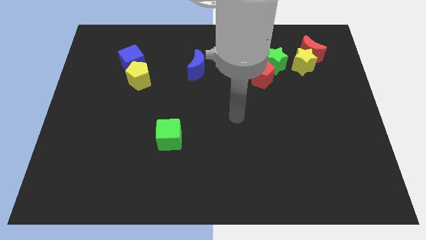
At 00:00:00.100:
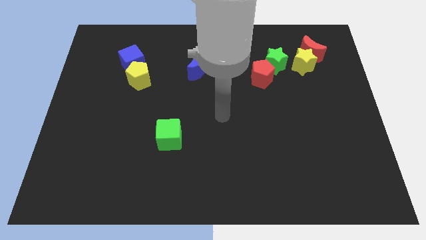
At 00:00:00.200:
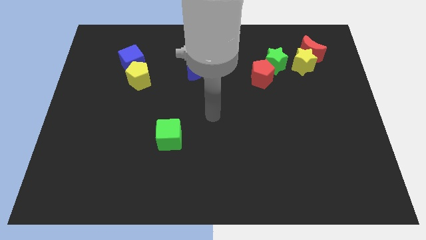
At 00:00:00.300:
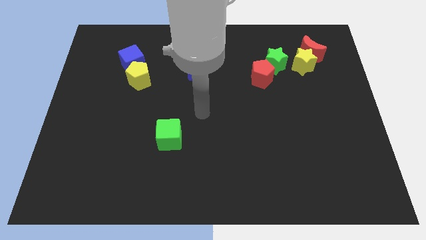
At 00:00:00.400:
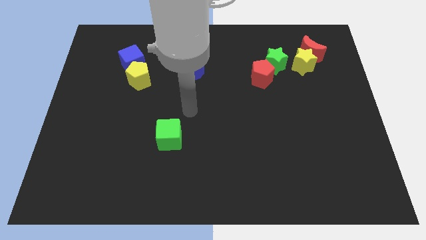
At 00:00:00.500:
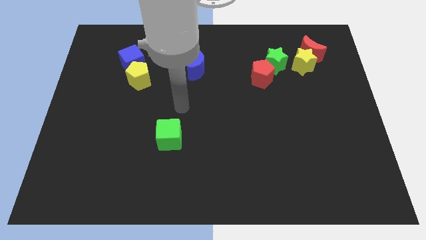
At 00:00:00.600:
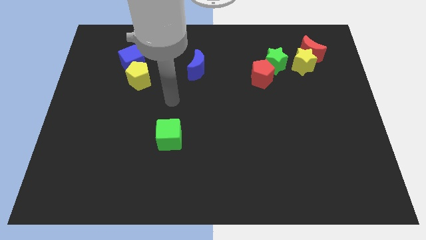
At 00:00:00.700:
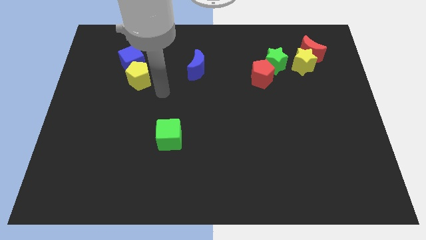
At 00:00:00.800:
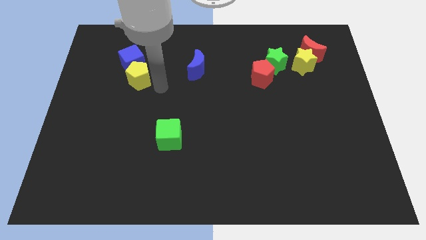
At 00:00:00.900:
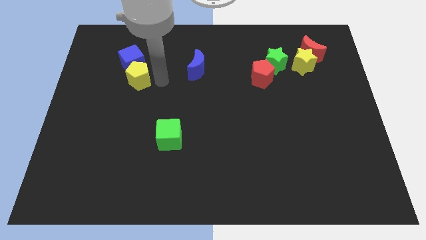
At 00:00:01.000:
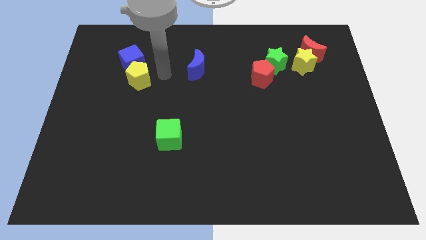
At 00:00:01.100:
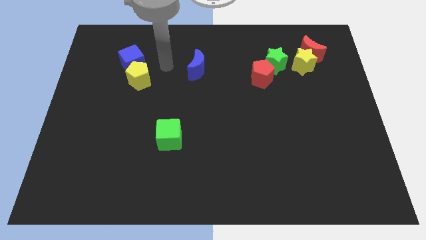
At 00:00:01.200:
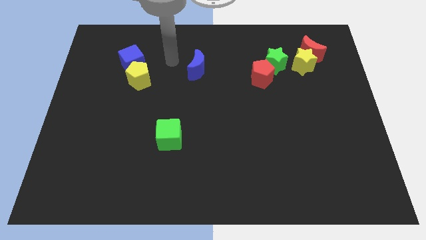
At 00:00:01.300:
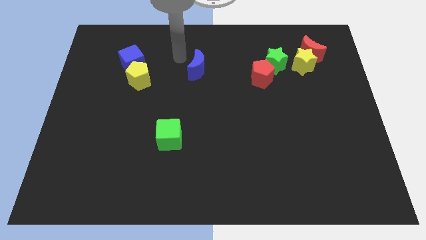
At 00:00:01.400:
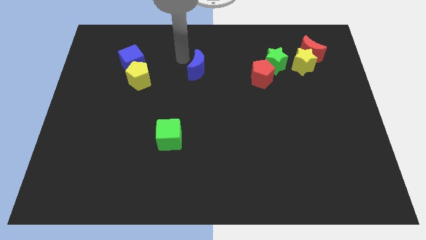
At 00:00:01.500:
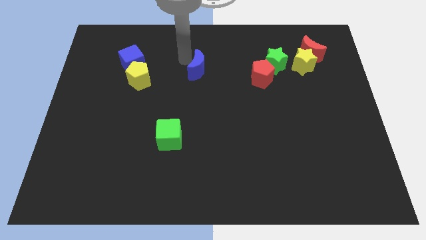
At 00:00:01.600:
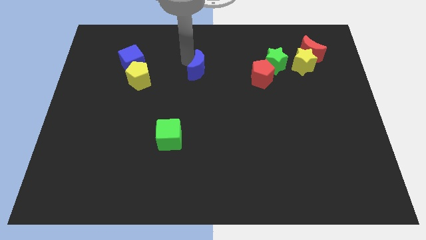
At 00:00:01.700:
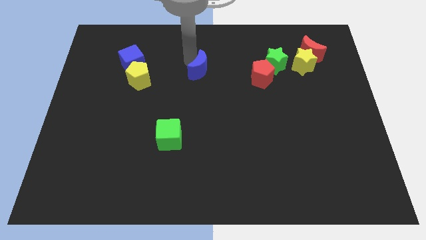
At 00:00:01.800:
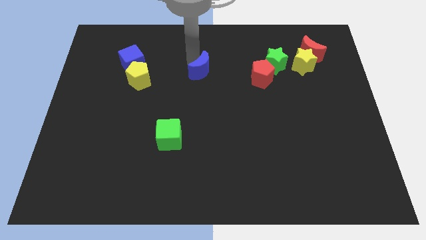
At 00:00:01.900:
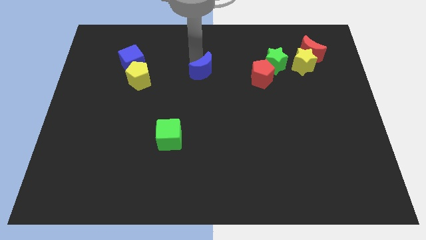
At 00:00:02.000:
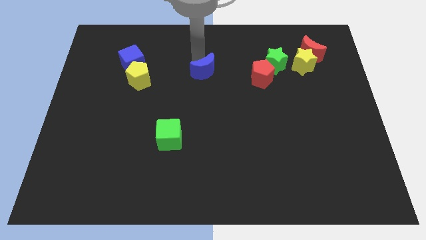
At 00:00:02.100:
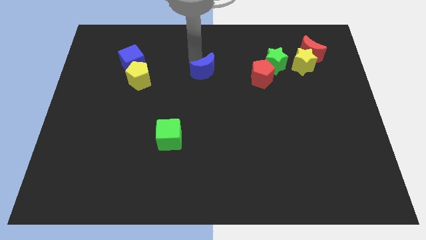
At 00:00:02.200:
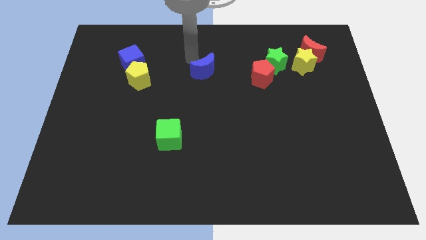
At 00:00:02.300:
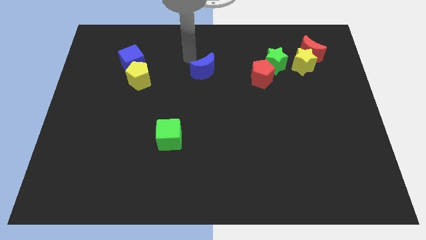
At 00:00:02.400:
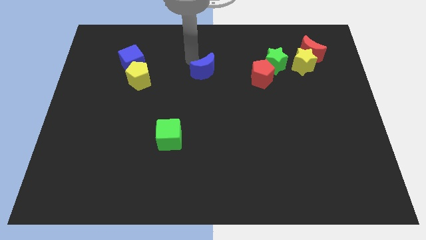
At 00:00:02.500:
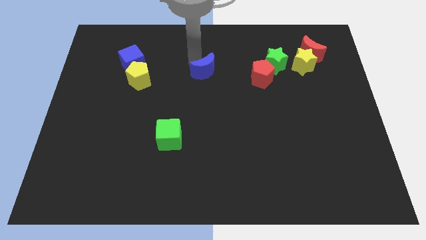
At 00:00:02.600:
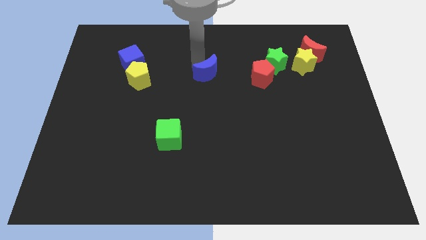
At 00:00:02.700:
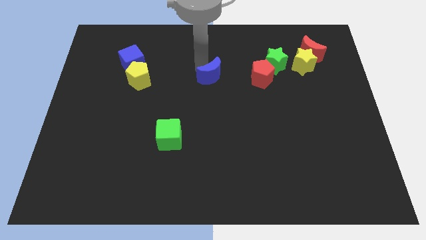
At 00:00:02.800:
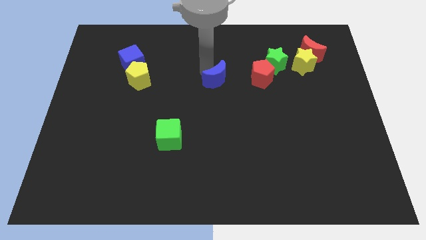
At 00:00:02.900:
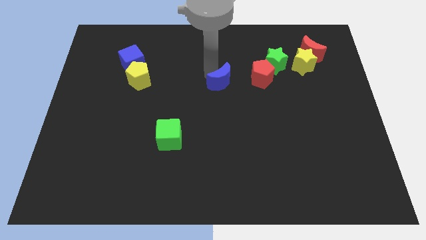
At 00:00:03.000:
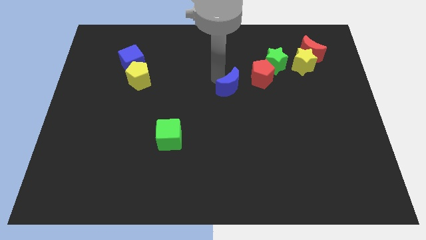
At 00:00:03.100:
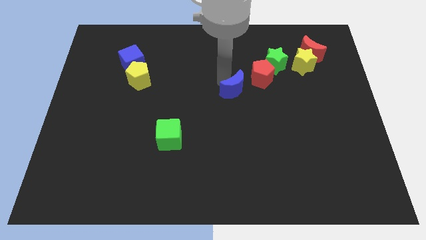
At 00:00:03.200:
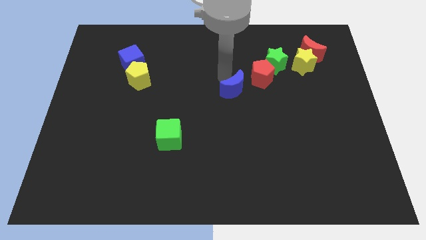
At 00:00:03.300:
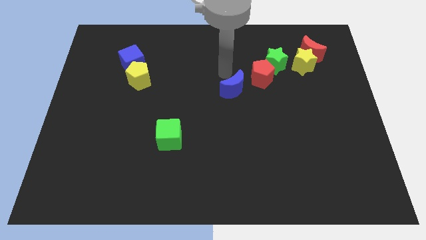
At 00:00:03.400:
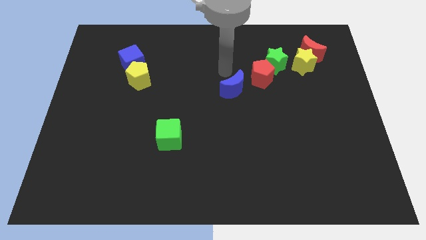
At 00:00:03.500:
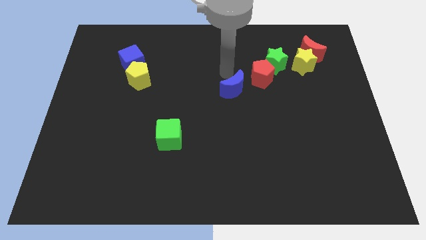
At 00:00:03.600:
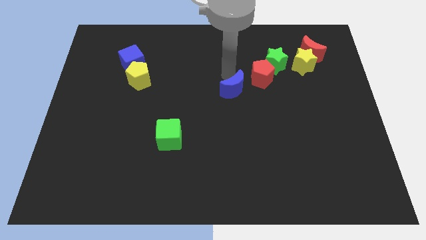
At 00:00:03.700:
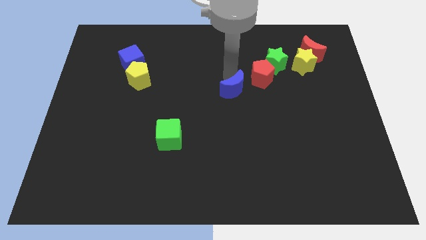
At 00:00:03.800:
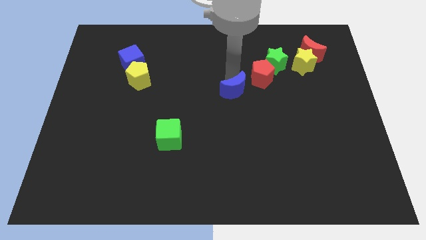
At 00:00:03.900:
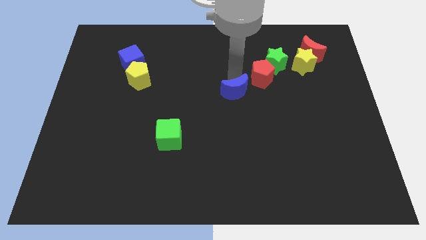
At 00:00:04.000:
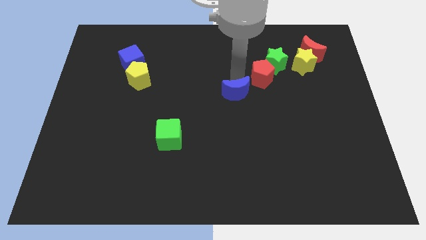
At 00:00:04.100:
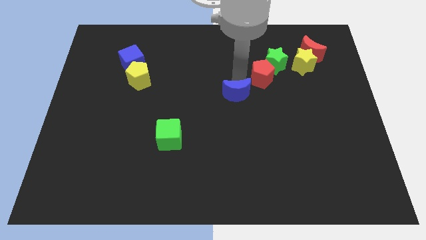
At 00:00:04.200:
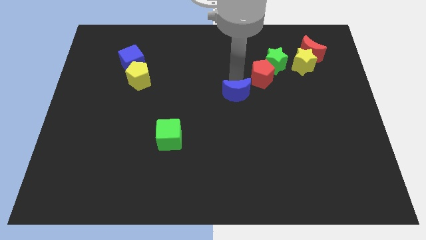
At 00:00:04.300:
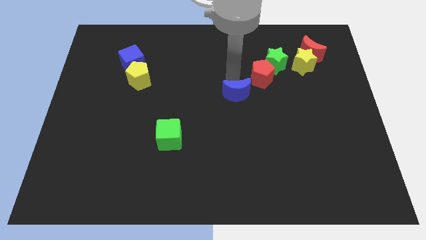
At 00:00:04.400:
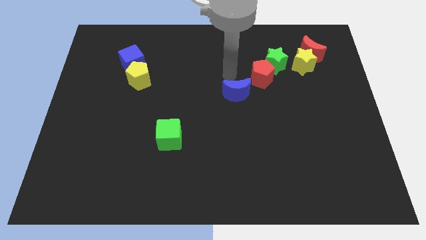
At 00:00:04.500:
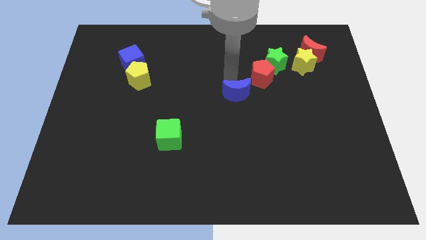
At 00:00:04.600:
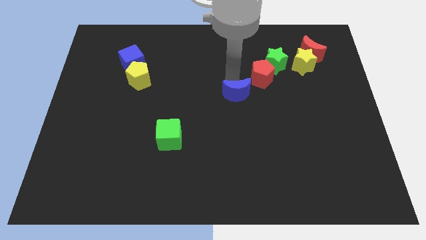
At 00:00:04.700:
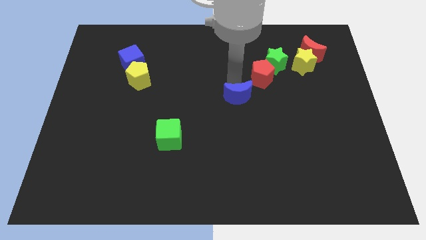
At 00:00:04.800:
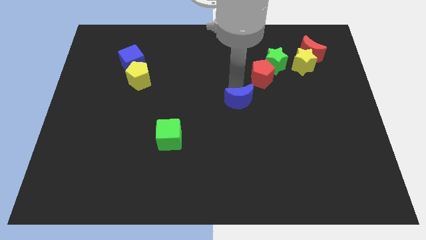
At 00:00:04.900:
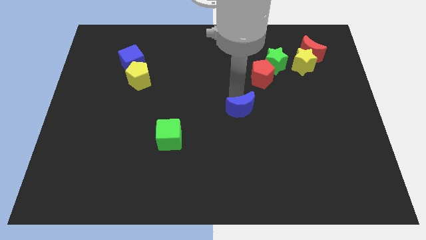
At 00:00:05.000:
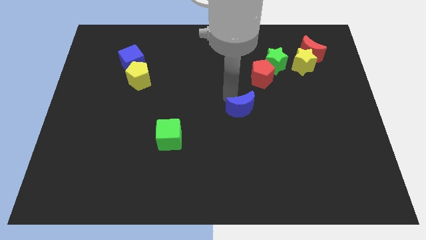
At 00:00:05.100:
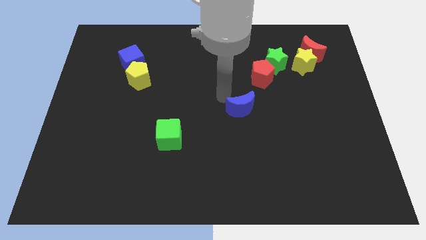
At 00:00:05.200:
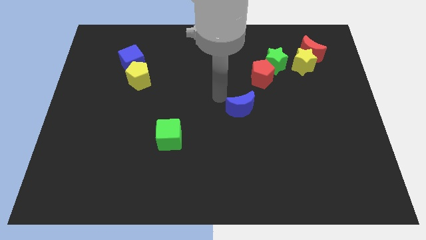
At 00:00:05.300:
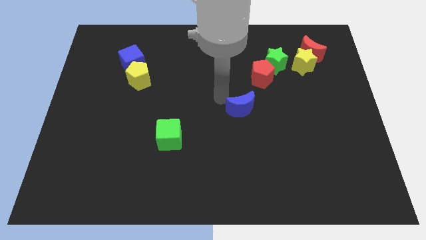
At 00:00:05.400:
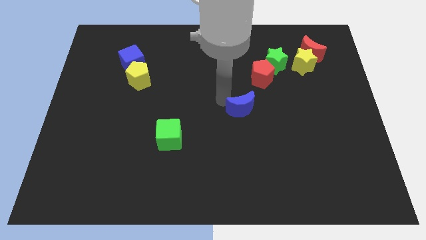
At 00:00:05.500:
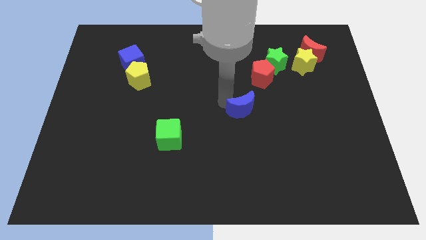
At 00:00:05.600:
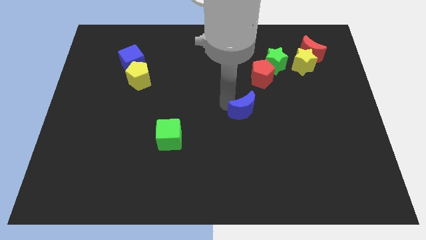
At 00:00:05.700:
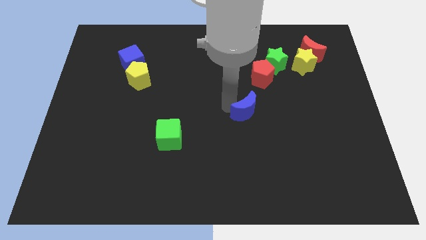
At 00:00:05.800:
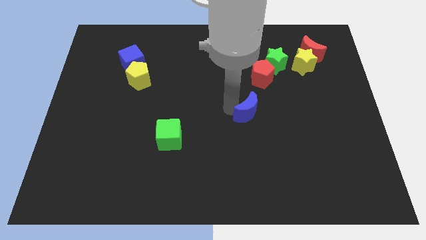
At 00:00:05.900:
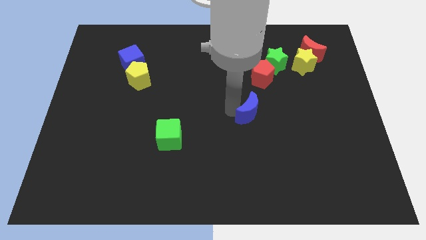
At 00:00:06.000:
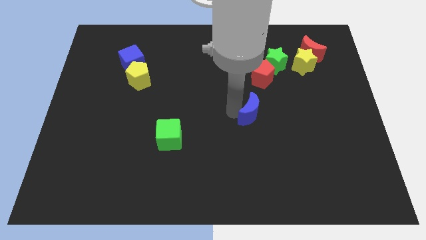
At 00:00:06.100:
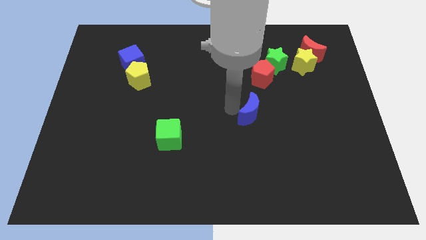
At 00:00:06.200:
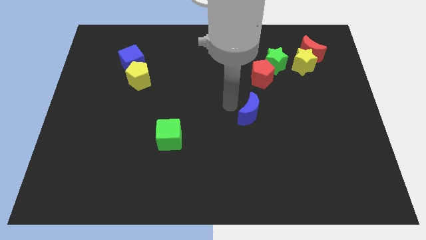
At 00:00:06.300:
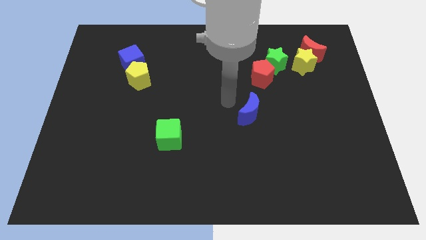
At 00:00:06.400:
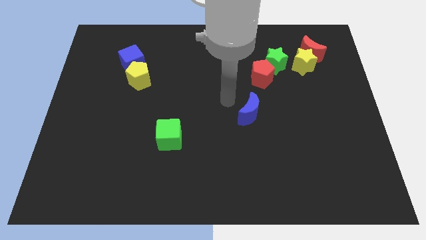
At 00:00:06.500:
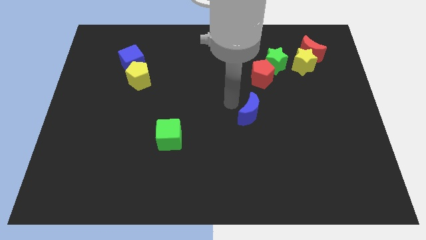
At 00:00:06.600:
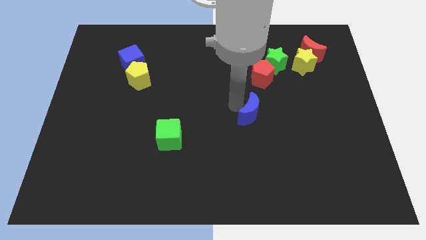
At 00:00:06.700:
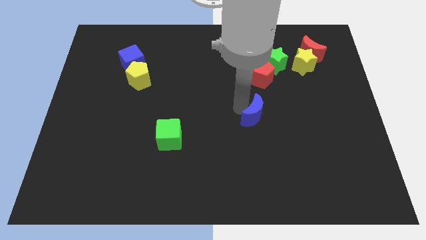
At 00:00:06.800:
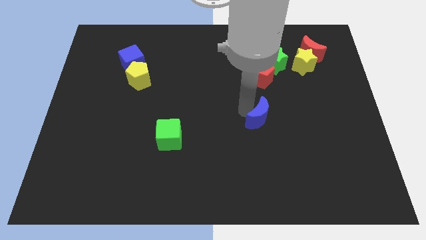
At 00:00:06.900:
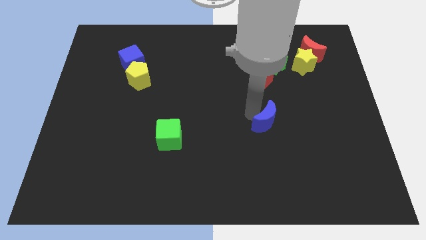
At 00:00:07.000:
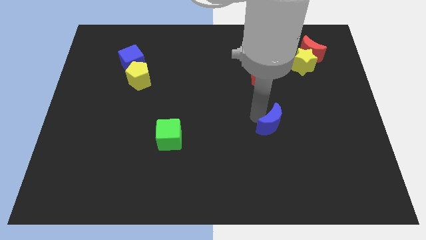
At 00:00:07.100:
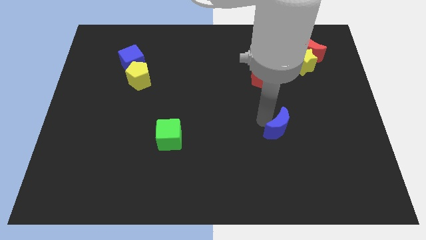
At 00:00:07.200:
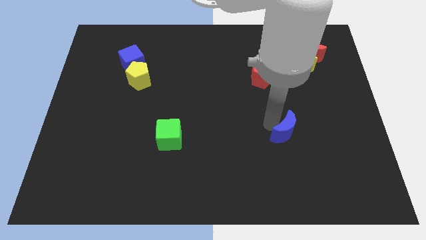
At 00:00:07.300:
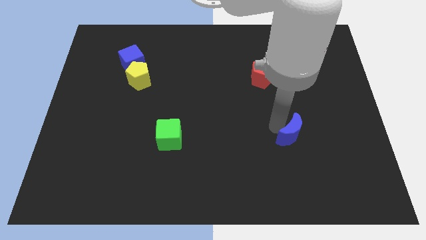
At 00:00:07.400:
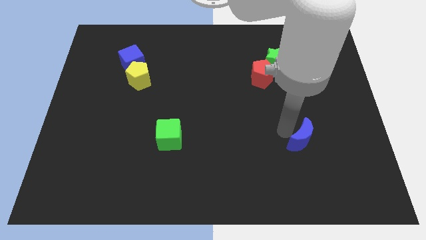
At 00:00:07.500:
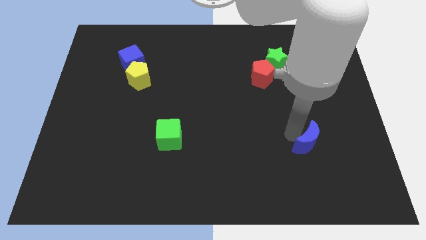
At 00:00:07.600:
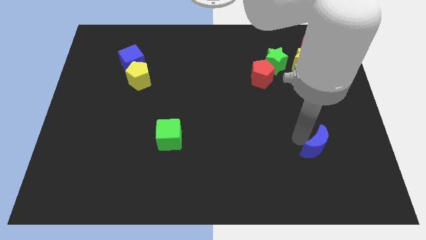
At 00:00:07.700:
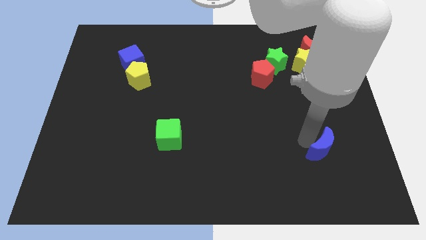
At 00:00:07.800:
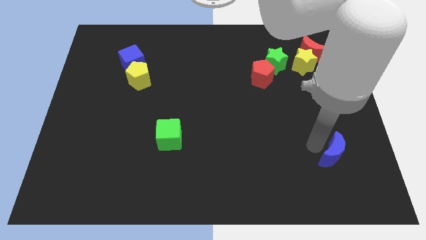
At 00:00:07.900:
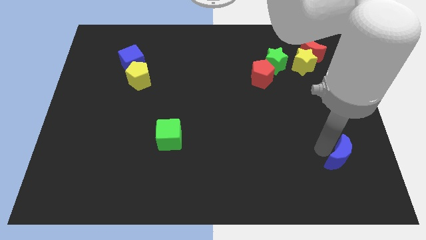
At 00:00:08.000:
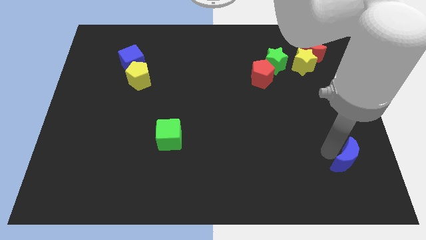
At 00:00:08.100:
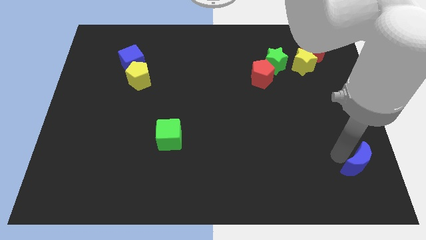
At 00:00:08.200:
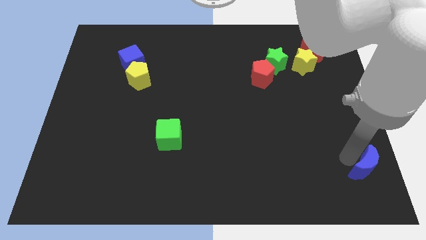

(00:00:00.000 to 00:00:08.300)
push the blue moon to the bottom right corner
